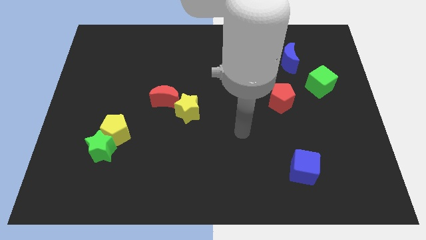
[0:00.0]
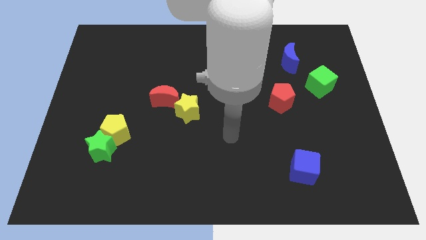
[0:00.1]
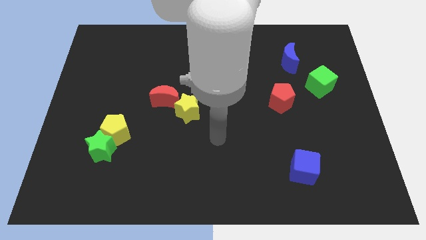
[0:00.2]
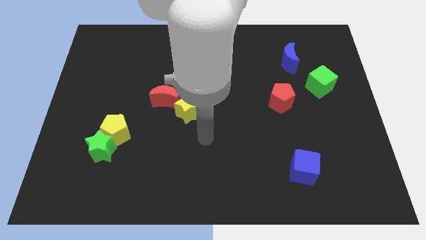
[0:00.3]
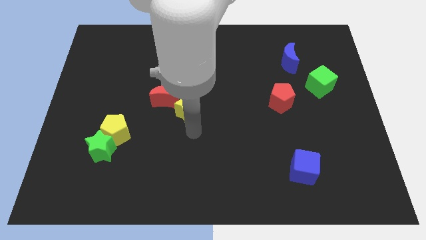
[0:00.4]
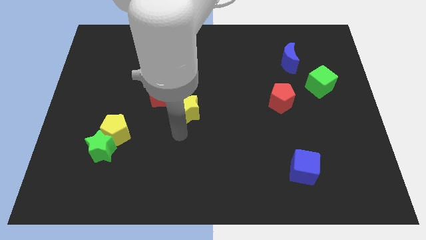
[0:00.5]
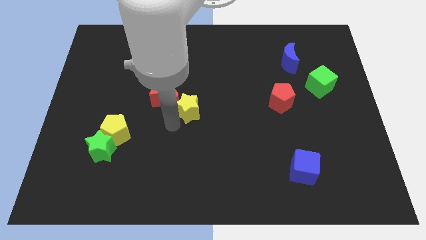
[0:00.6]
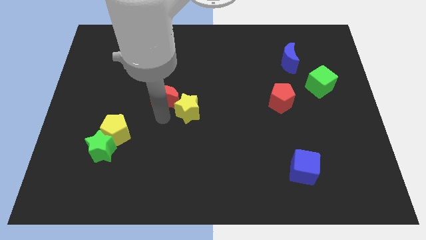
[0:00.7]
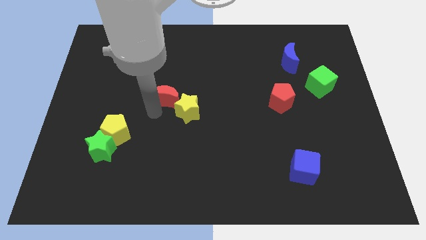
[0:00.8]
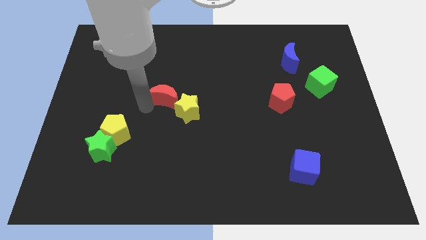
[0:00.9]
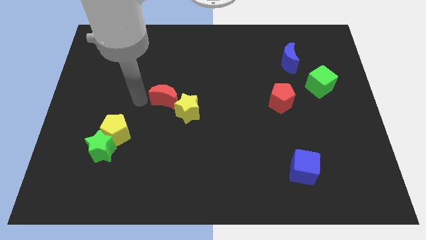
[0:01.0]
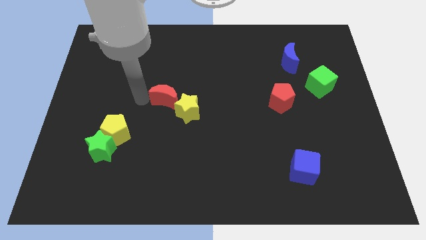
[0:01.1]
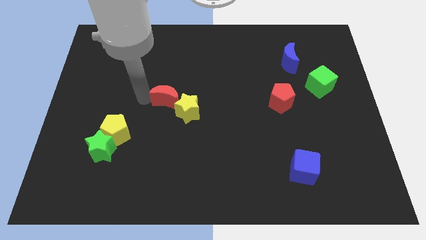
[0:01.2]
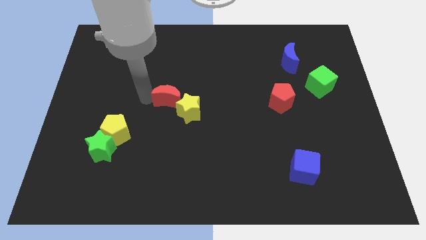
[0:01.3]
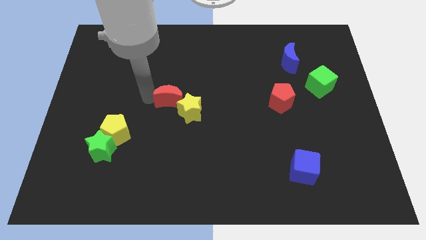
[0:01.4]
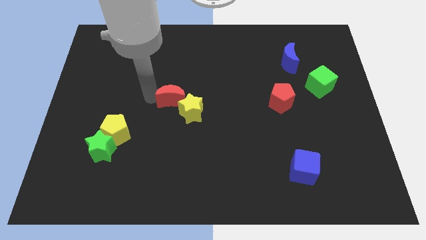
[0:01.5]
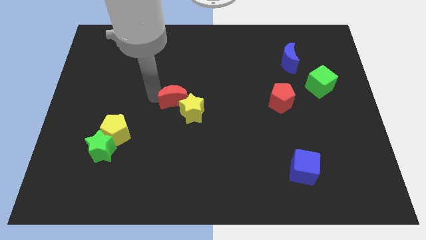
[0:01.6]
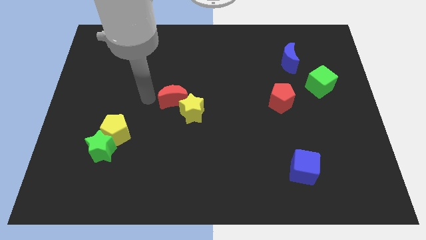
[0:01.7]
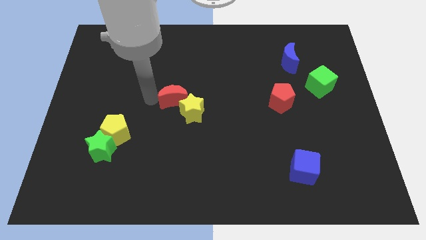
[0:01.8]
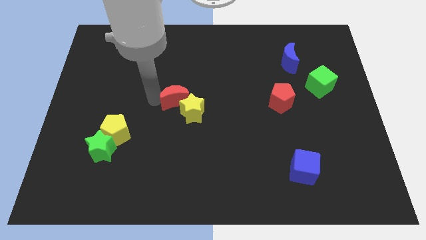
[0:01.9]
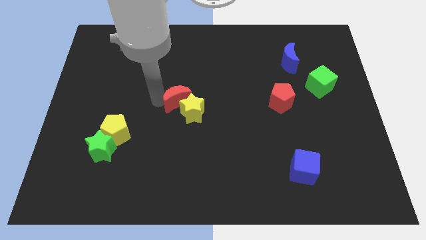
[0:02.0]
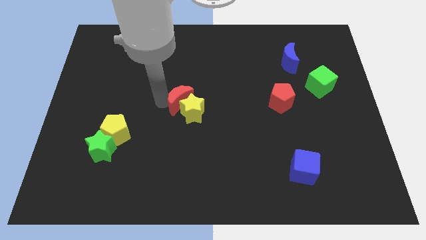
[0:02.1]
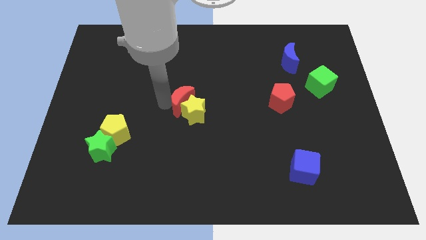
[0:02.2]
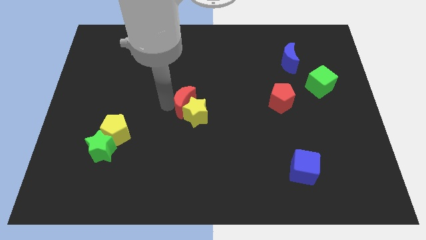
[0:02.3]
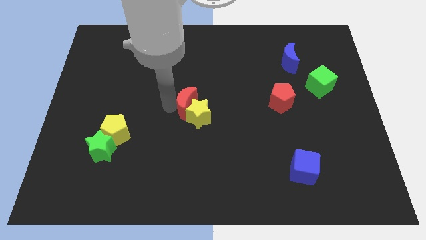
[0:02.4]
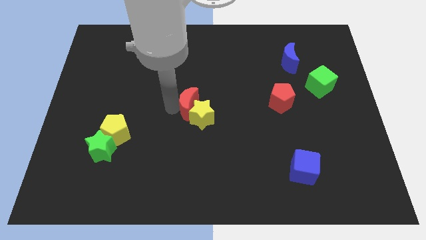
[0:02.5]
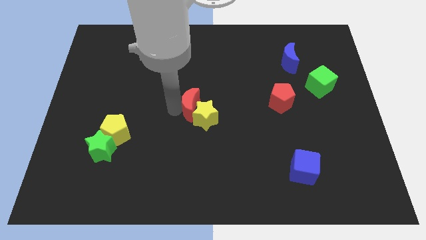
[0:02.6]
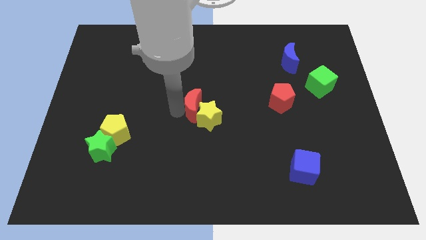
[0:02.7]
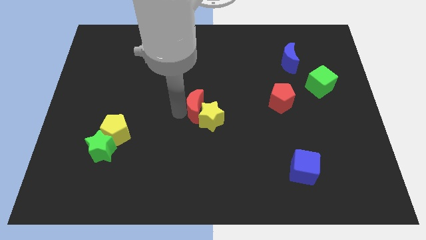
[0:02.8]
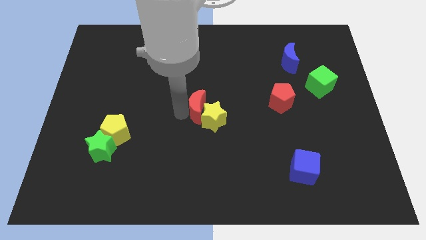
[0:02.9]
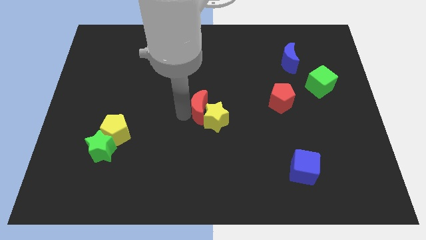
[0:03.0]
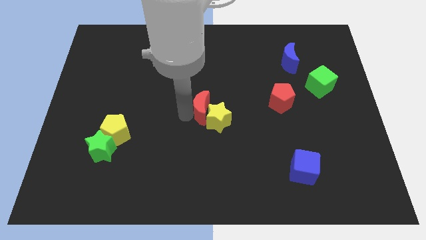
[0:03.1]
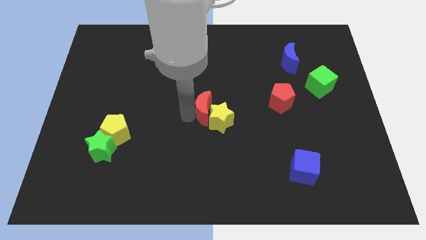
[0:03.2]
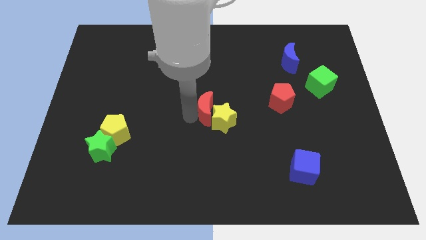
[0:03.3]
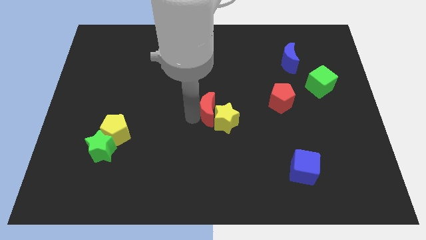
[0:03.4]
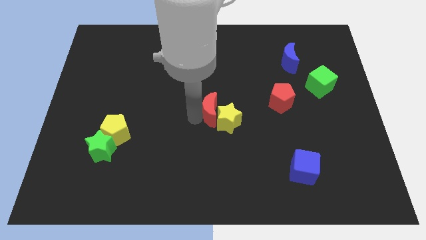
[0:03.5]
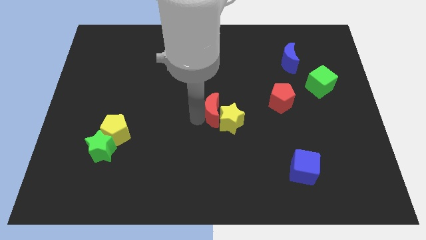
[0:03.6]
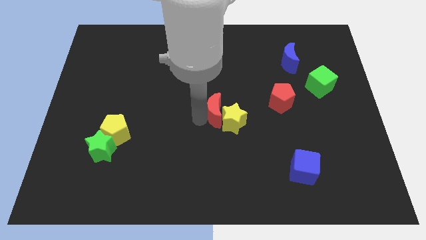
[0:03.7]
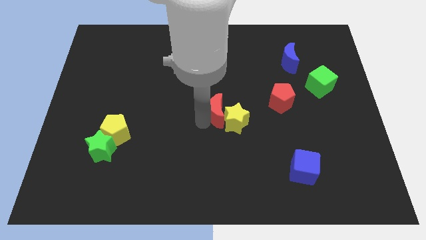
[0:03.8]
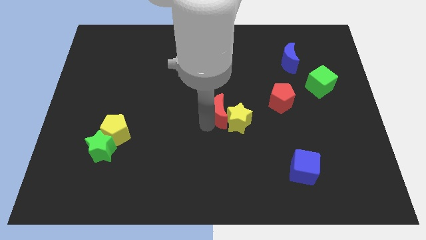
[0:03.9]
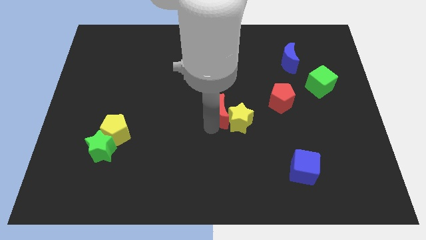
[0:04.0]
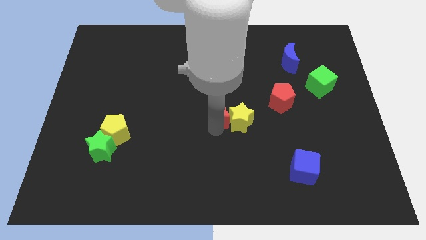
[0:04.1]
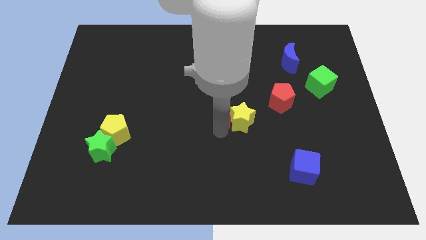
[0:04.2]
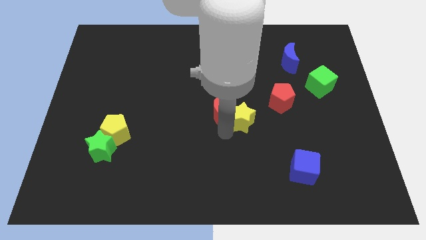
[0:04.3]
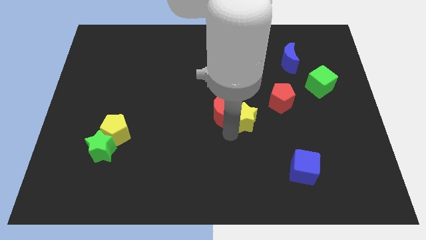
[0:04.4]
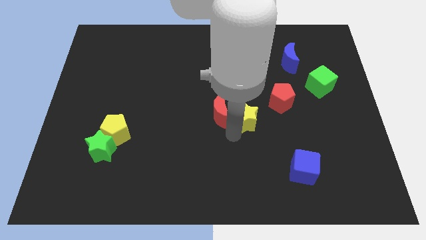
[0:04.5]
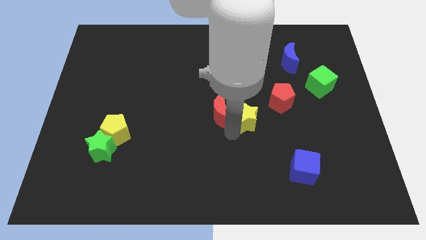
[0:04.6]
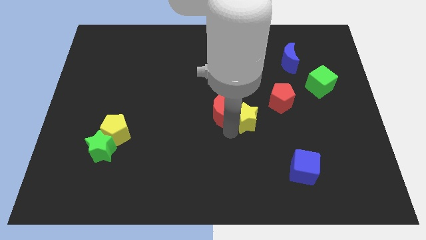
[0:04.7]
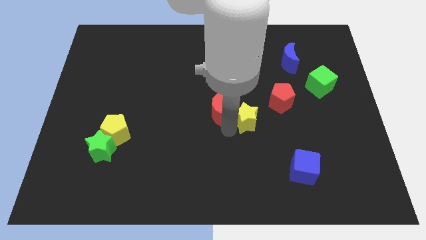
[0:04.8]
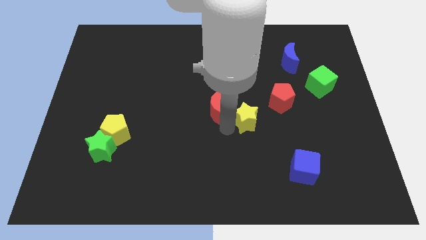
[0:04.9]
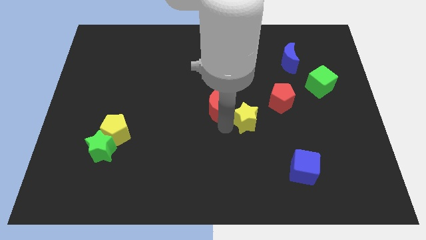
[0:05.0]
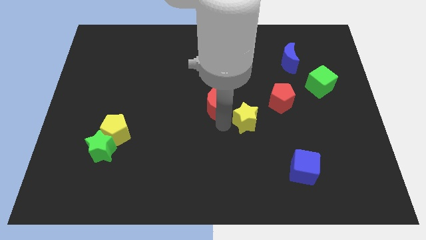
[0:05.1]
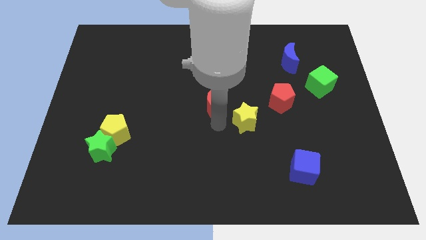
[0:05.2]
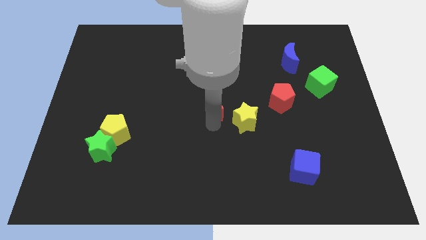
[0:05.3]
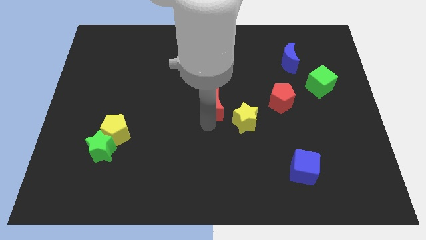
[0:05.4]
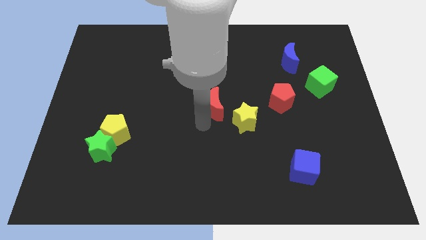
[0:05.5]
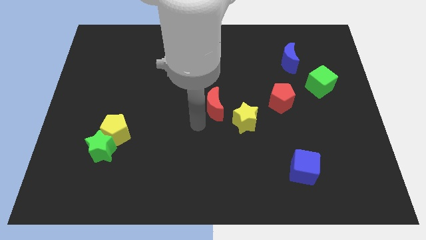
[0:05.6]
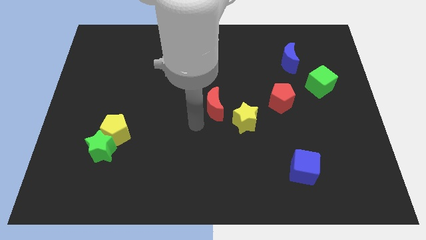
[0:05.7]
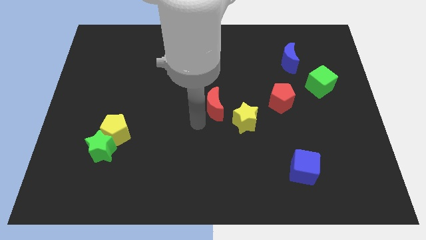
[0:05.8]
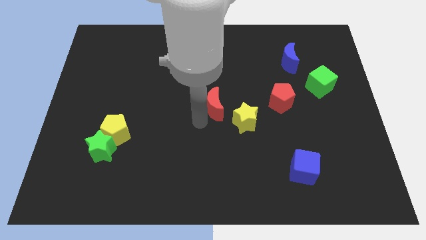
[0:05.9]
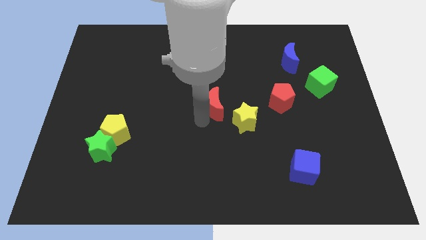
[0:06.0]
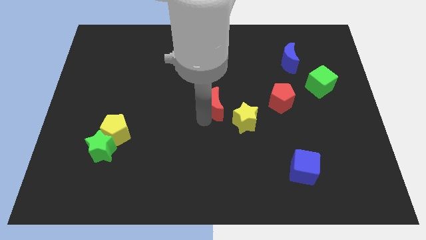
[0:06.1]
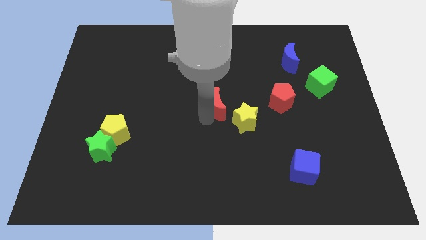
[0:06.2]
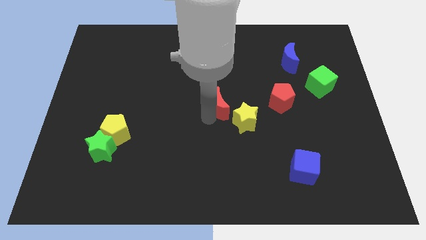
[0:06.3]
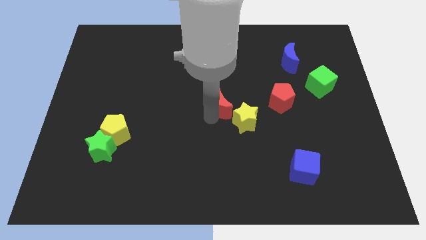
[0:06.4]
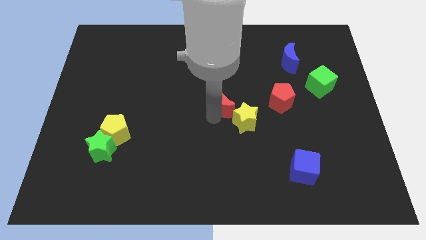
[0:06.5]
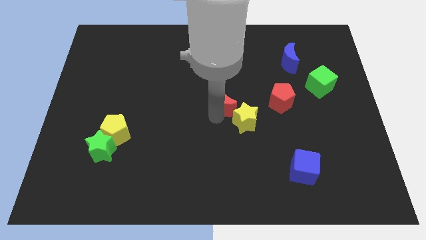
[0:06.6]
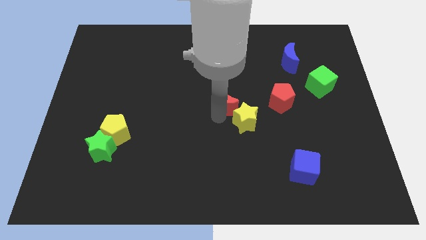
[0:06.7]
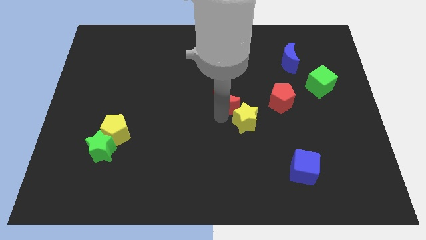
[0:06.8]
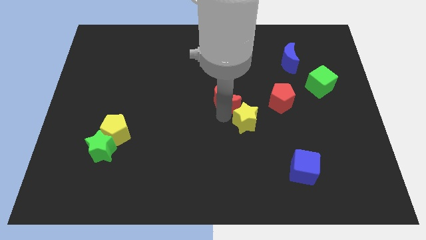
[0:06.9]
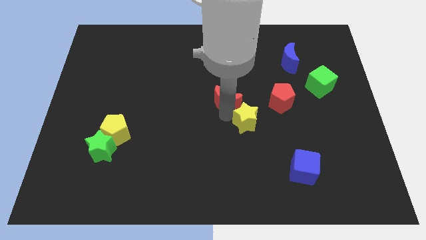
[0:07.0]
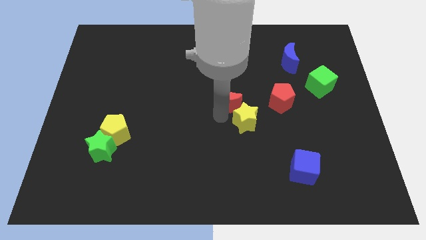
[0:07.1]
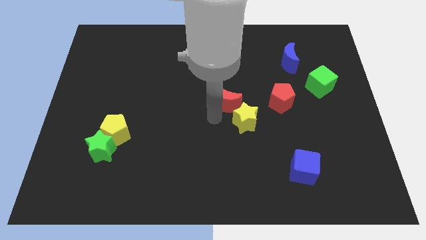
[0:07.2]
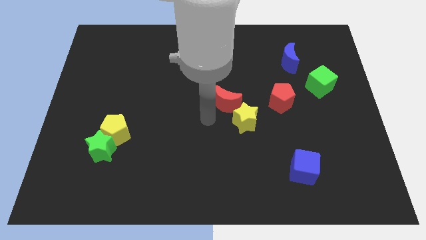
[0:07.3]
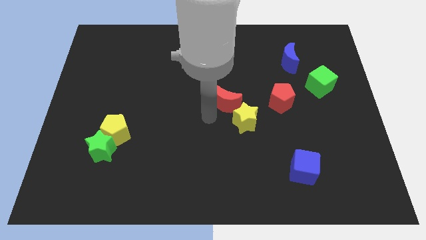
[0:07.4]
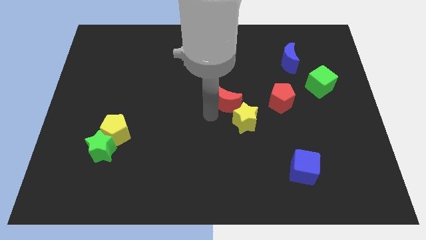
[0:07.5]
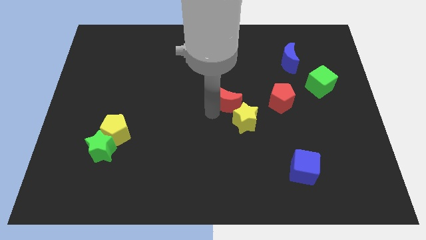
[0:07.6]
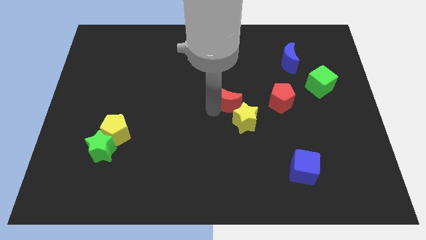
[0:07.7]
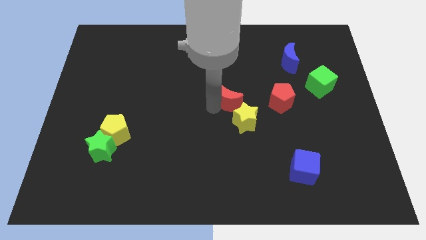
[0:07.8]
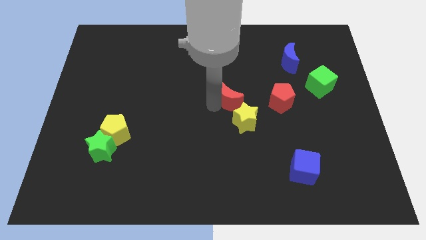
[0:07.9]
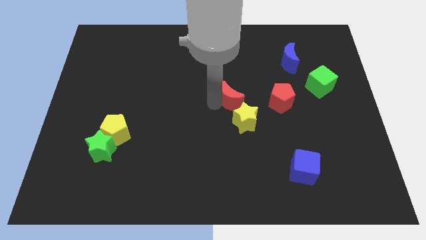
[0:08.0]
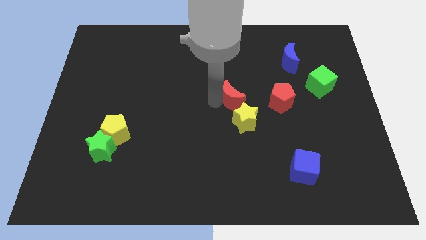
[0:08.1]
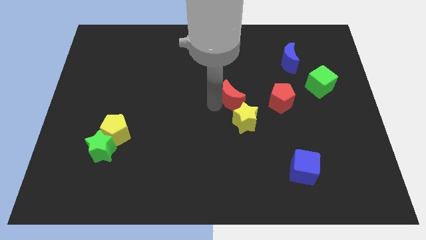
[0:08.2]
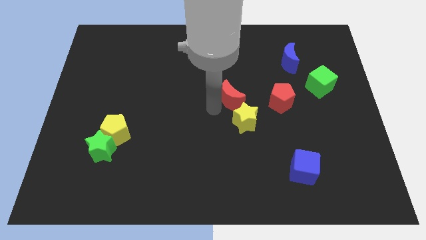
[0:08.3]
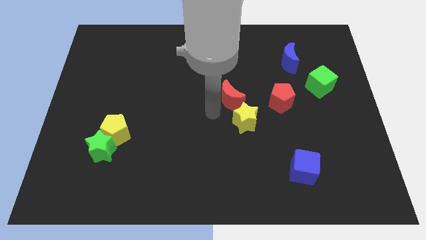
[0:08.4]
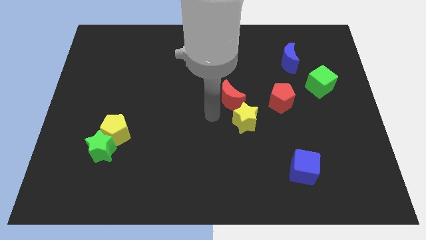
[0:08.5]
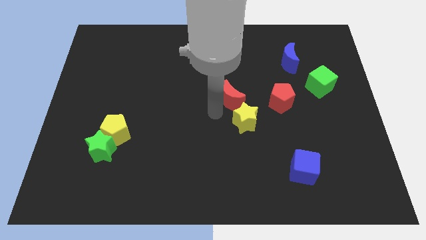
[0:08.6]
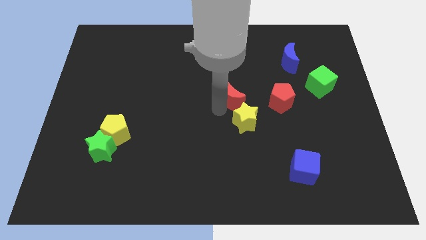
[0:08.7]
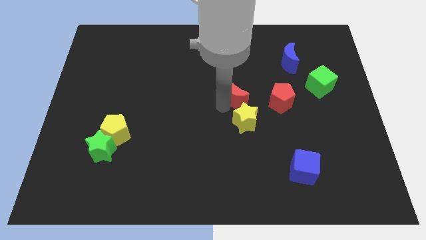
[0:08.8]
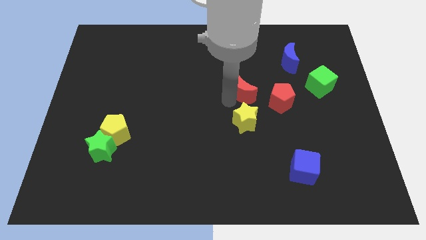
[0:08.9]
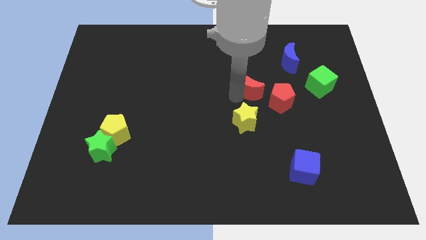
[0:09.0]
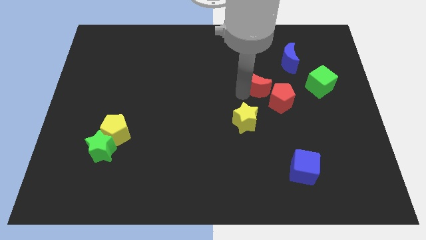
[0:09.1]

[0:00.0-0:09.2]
slide the red moon to the bottom left side of the blue moon
